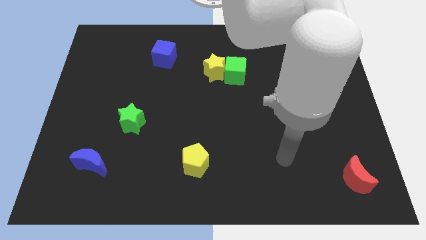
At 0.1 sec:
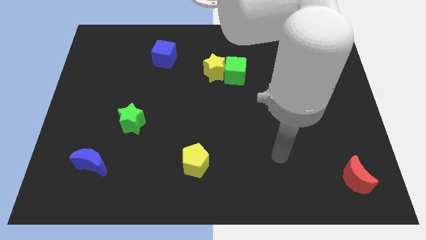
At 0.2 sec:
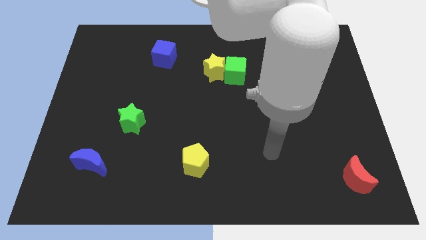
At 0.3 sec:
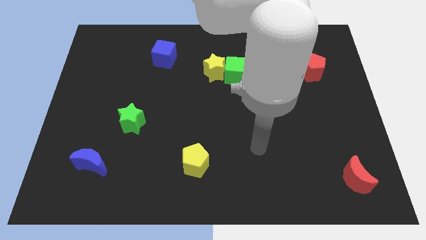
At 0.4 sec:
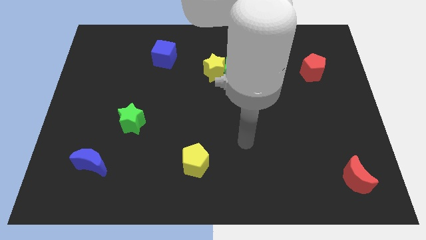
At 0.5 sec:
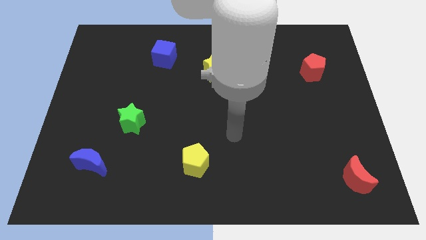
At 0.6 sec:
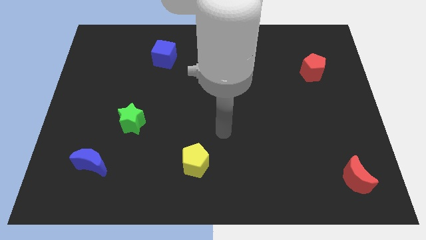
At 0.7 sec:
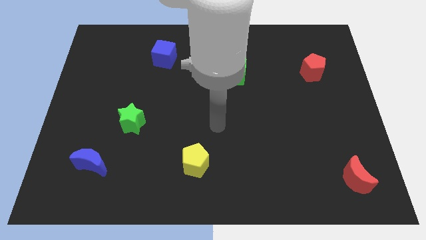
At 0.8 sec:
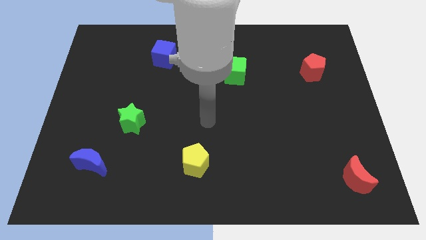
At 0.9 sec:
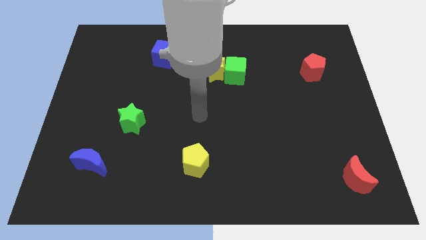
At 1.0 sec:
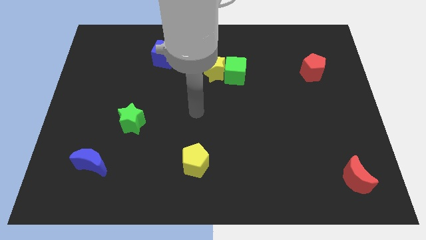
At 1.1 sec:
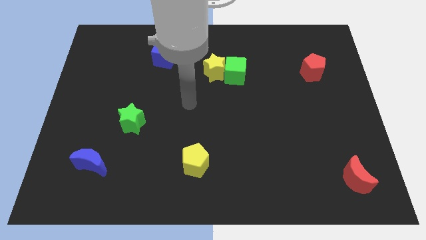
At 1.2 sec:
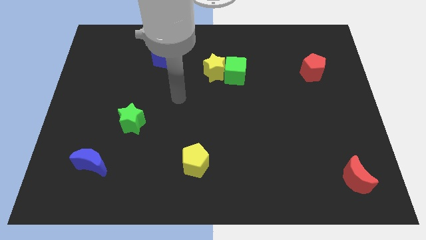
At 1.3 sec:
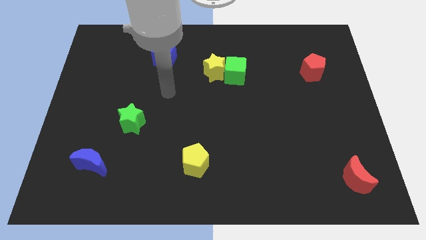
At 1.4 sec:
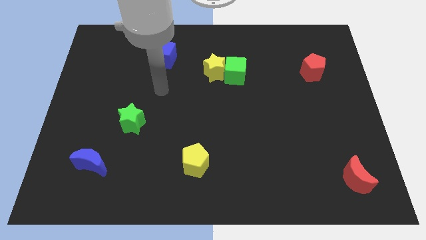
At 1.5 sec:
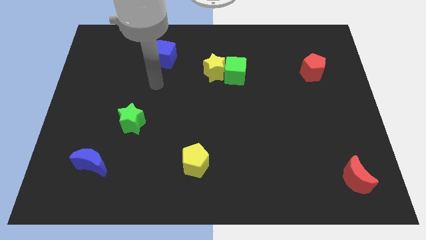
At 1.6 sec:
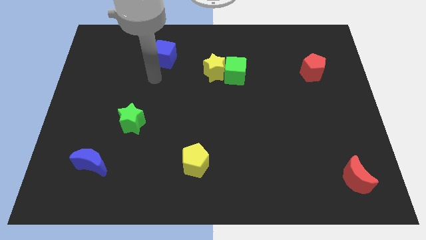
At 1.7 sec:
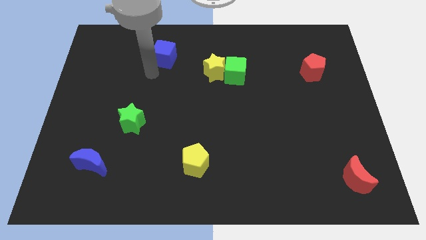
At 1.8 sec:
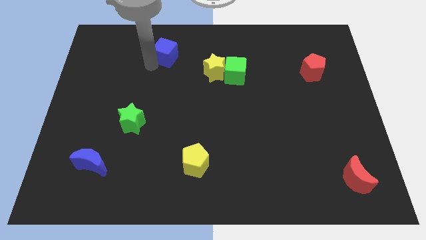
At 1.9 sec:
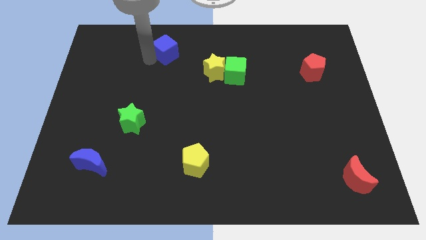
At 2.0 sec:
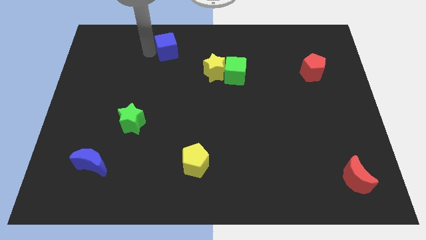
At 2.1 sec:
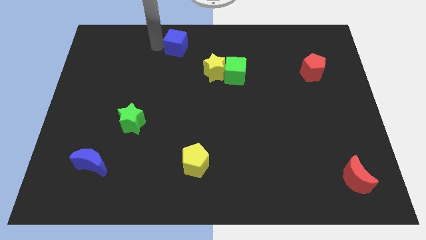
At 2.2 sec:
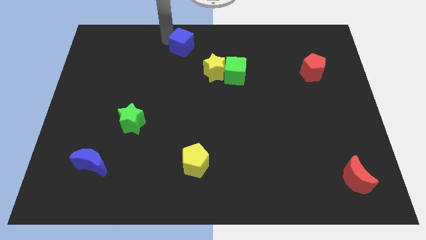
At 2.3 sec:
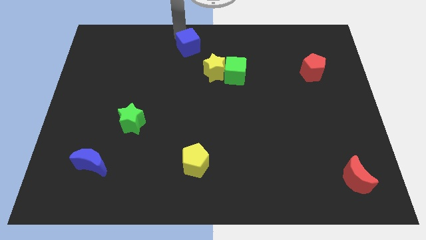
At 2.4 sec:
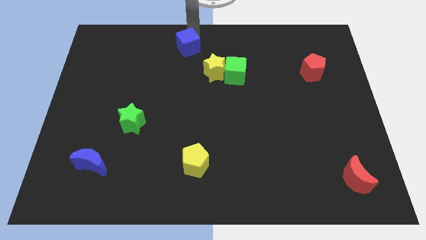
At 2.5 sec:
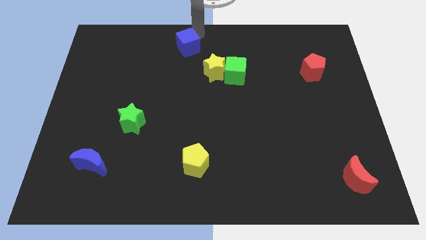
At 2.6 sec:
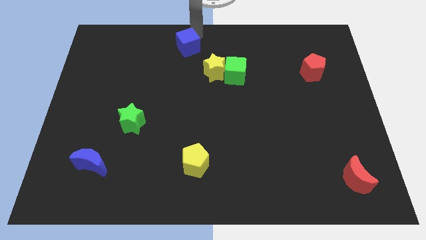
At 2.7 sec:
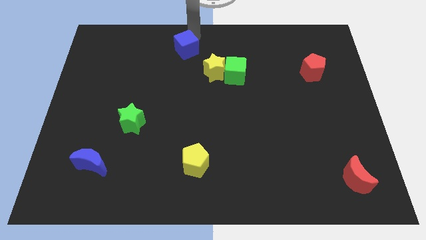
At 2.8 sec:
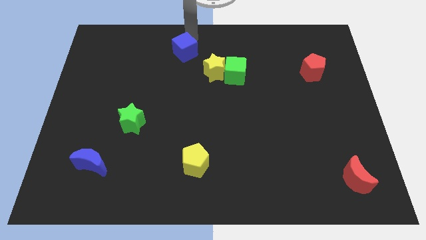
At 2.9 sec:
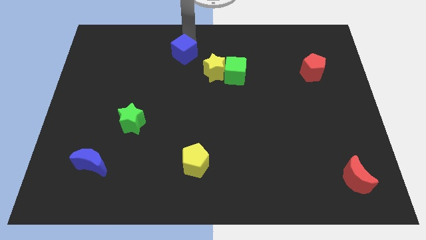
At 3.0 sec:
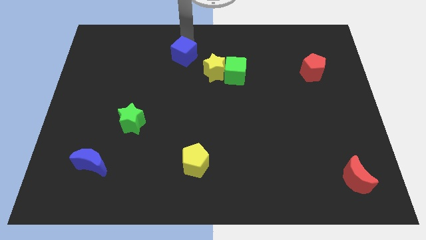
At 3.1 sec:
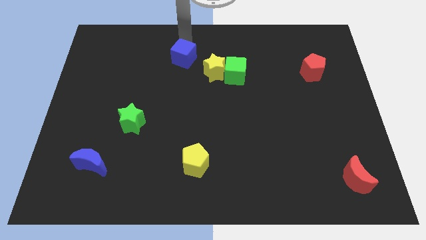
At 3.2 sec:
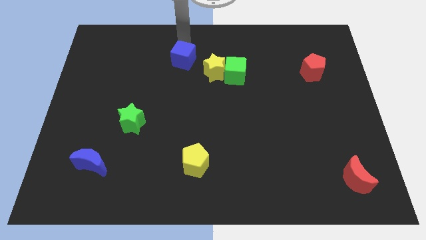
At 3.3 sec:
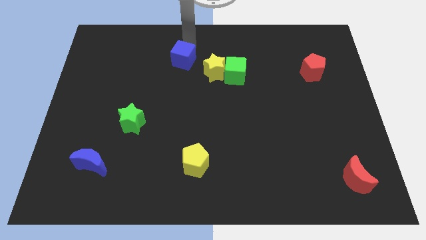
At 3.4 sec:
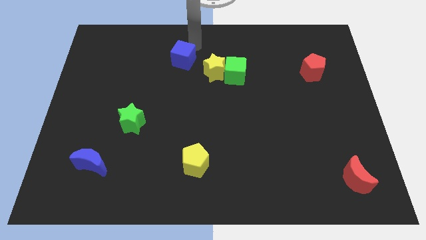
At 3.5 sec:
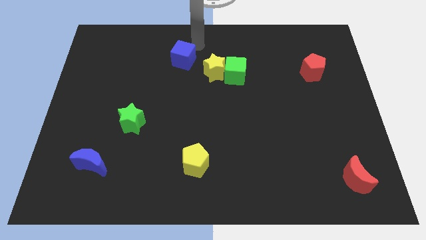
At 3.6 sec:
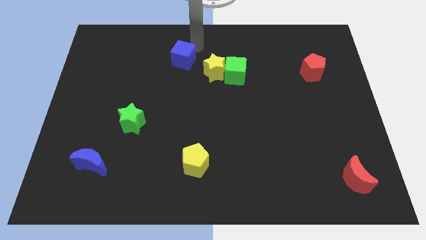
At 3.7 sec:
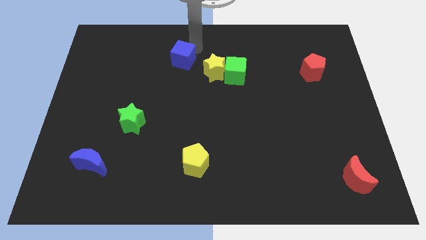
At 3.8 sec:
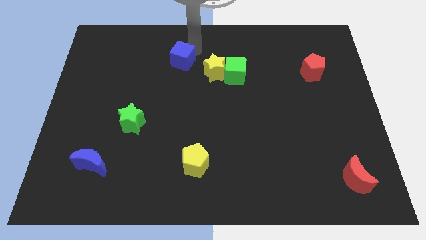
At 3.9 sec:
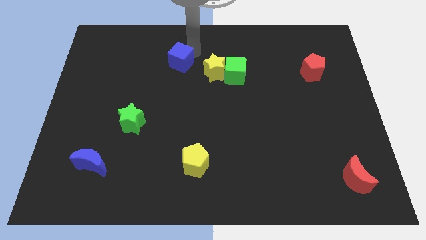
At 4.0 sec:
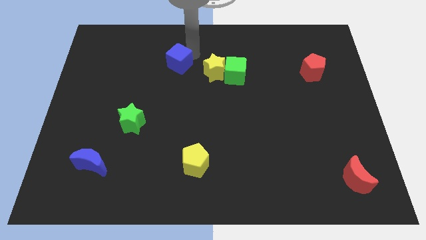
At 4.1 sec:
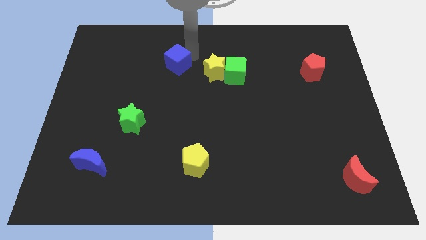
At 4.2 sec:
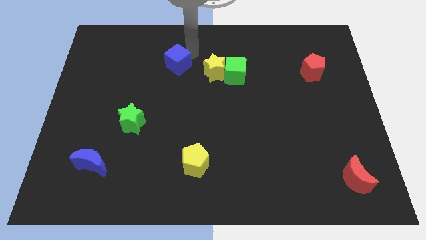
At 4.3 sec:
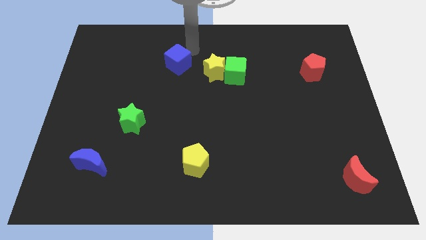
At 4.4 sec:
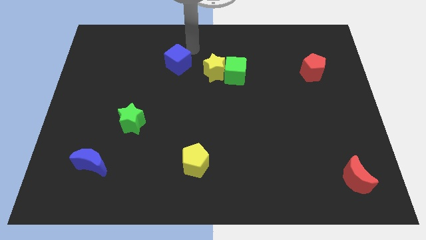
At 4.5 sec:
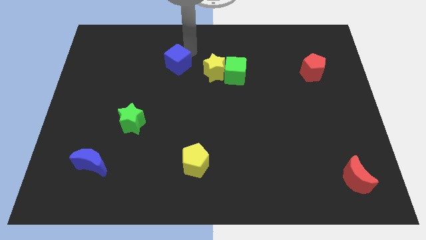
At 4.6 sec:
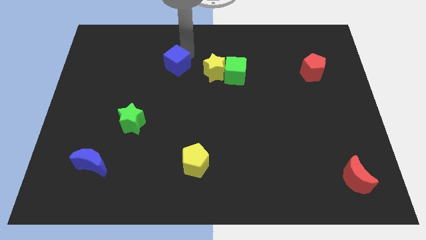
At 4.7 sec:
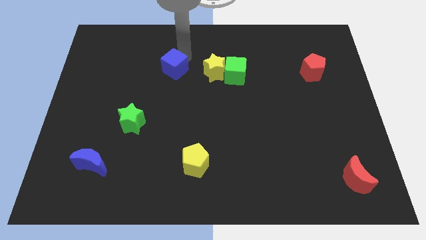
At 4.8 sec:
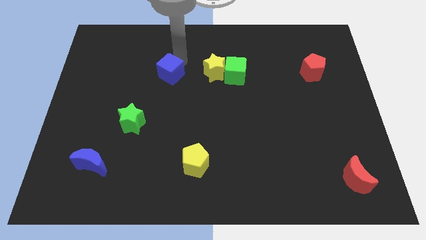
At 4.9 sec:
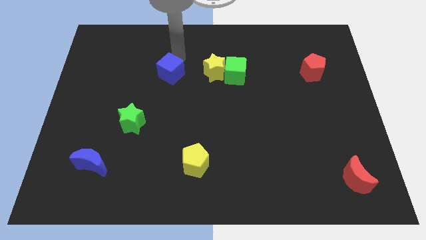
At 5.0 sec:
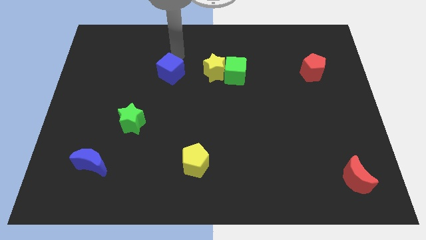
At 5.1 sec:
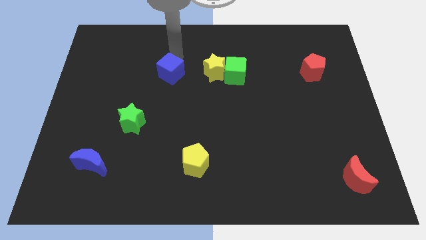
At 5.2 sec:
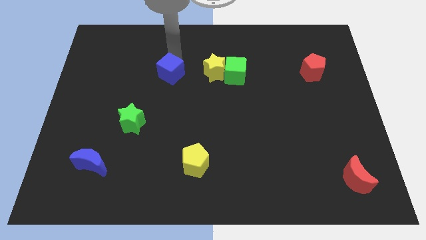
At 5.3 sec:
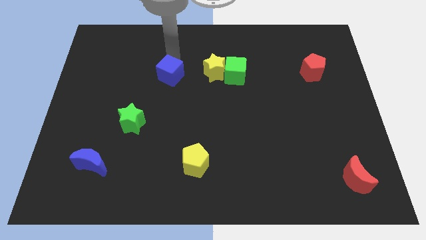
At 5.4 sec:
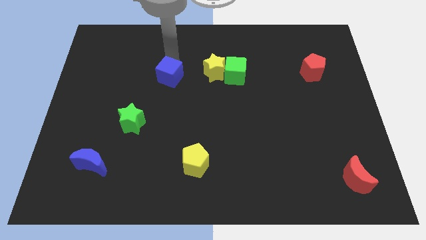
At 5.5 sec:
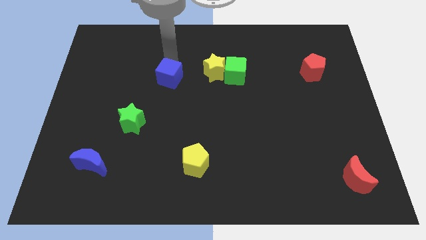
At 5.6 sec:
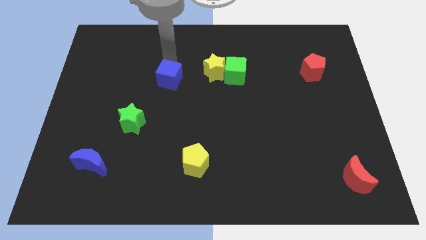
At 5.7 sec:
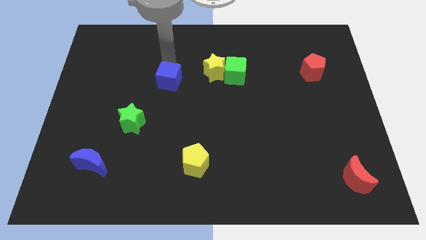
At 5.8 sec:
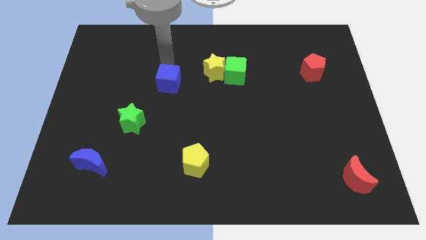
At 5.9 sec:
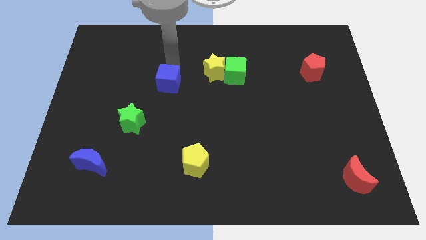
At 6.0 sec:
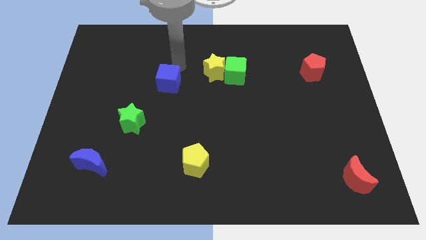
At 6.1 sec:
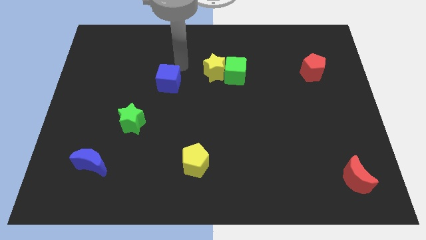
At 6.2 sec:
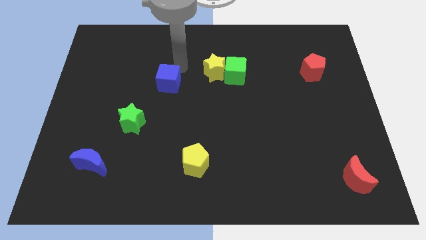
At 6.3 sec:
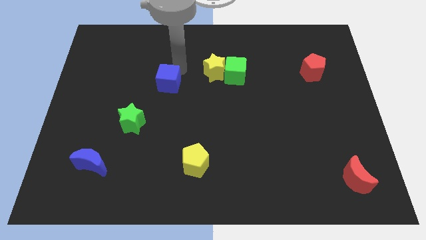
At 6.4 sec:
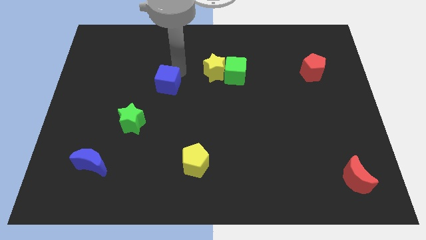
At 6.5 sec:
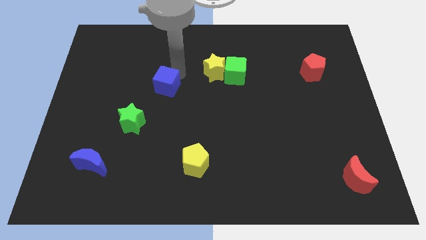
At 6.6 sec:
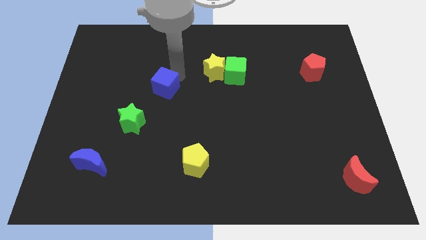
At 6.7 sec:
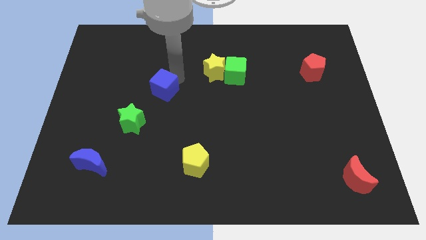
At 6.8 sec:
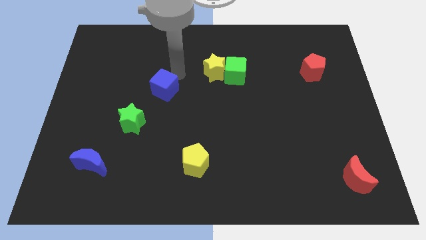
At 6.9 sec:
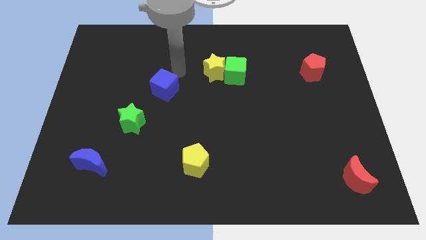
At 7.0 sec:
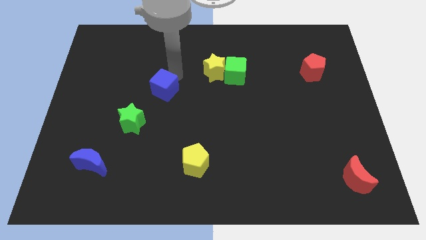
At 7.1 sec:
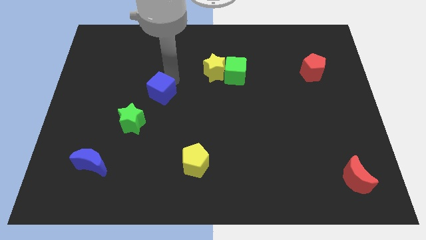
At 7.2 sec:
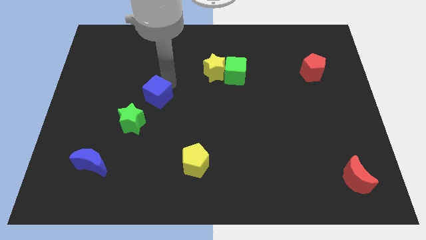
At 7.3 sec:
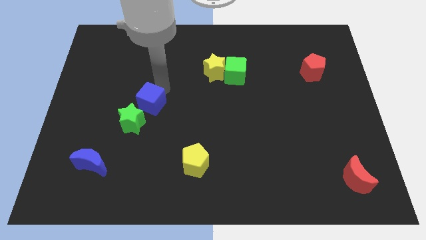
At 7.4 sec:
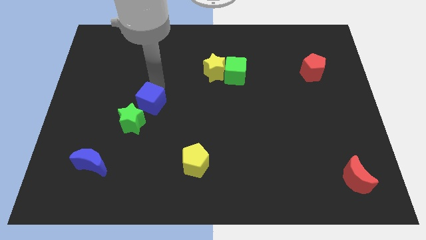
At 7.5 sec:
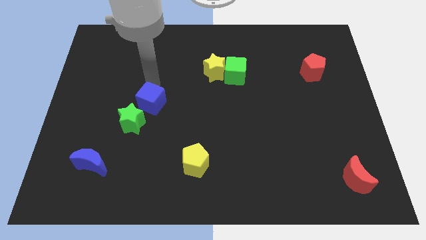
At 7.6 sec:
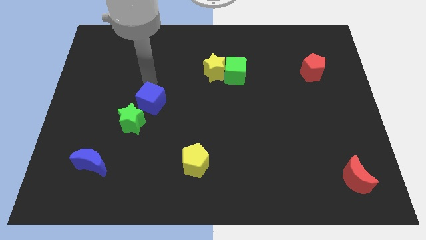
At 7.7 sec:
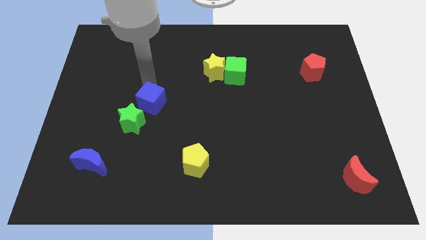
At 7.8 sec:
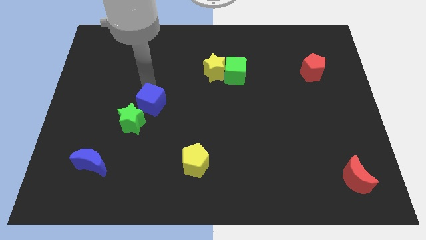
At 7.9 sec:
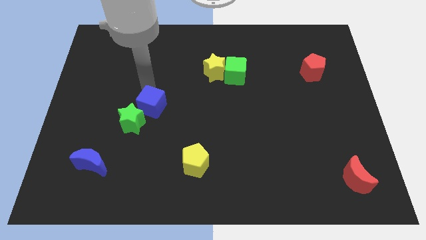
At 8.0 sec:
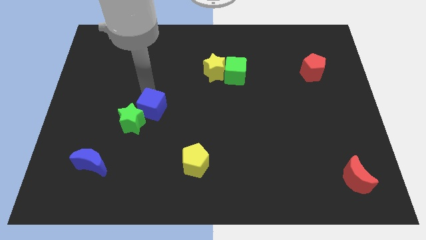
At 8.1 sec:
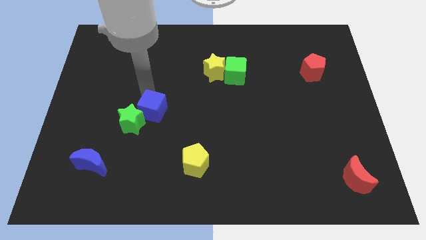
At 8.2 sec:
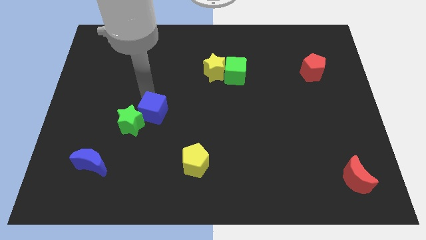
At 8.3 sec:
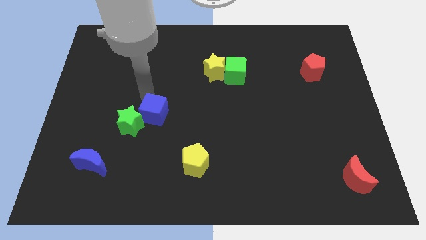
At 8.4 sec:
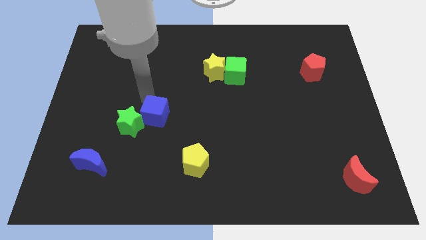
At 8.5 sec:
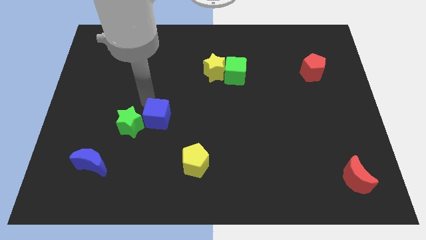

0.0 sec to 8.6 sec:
move the blue cube downwards
